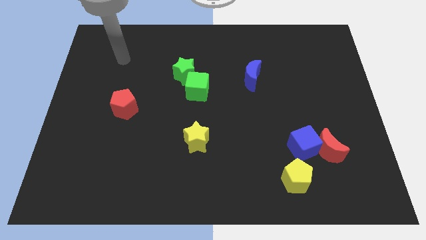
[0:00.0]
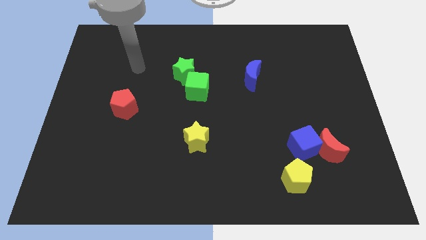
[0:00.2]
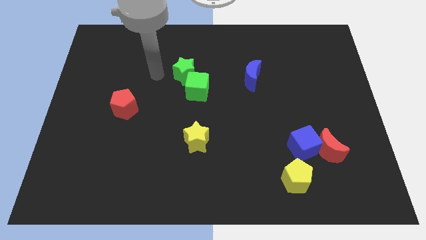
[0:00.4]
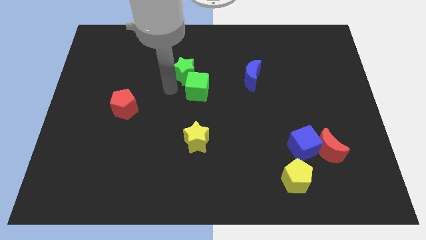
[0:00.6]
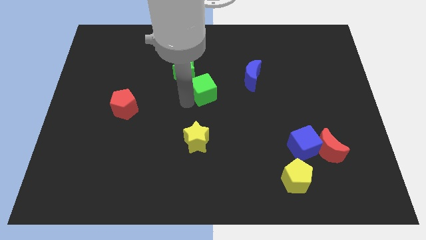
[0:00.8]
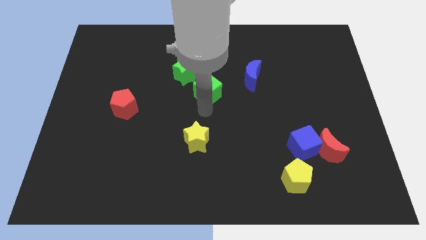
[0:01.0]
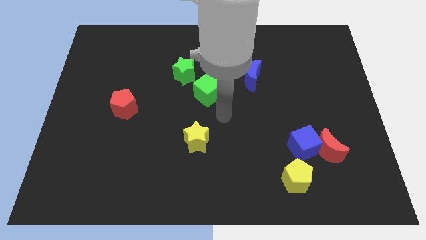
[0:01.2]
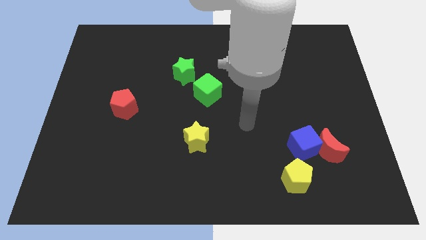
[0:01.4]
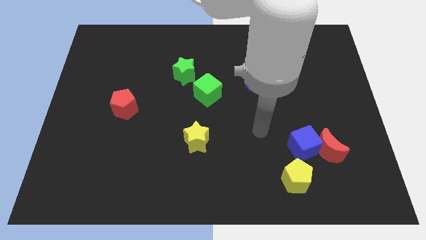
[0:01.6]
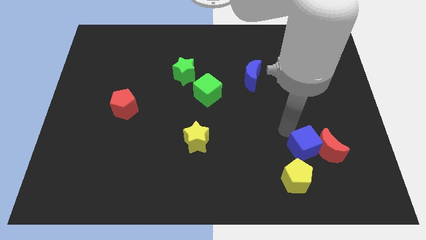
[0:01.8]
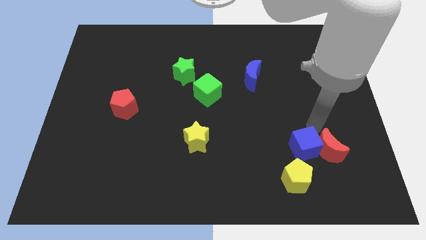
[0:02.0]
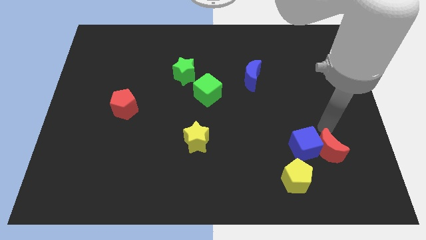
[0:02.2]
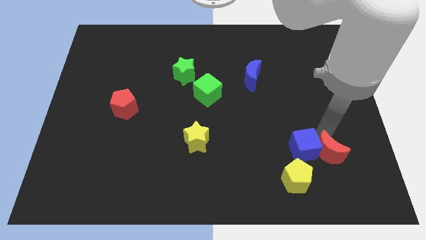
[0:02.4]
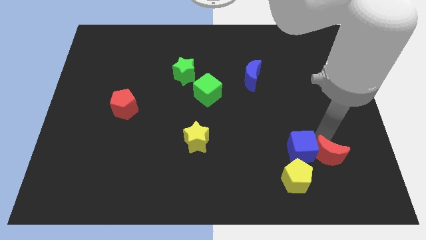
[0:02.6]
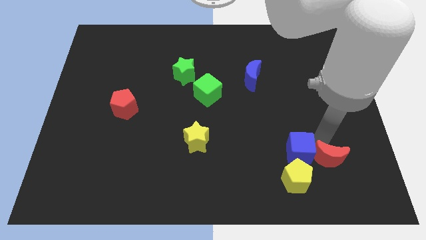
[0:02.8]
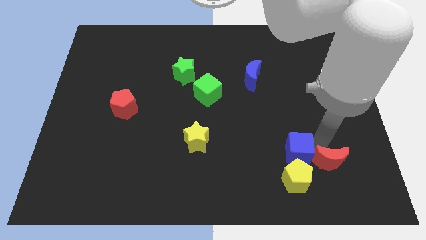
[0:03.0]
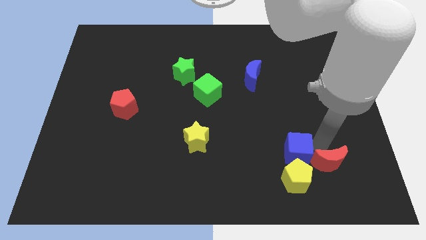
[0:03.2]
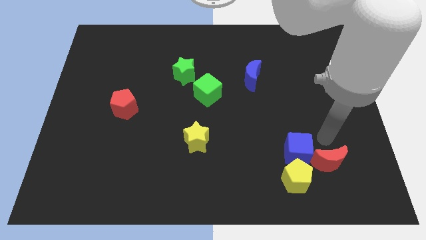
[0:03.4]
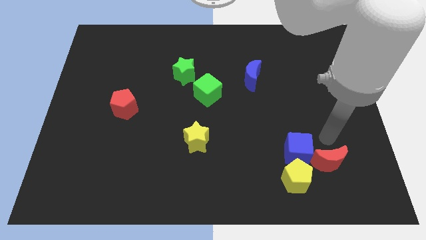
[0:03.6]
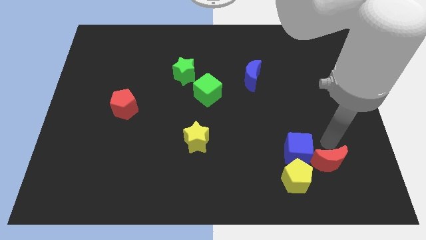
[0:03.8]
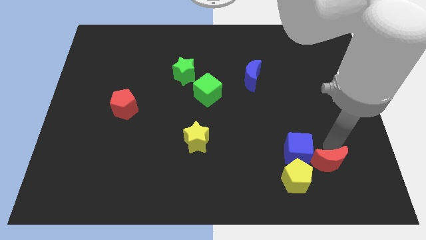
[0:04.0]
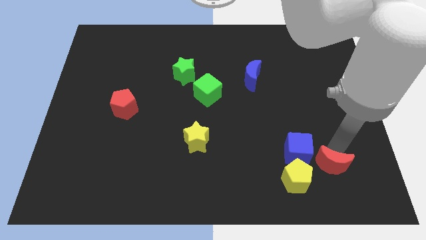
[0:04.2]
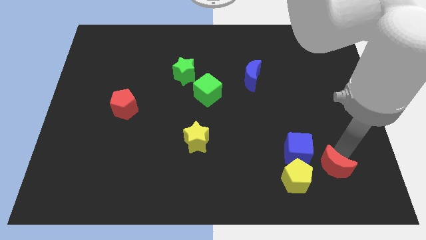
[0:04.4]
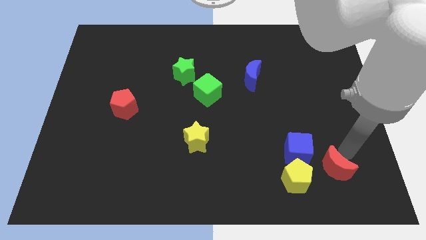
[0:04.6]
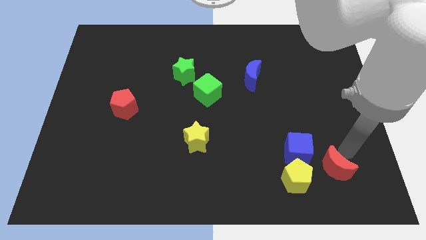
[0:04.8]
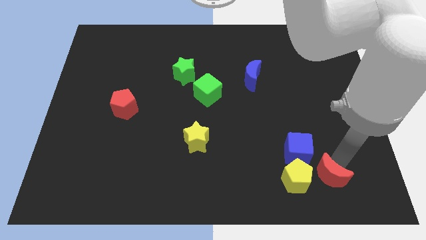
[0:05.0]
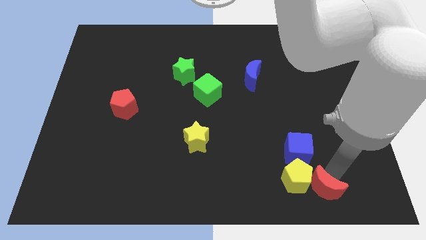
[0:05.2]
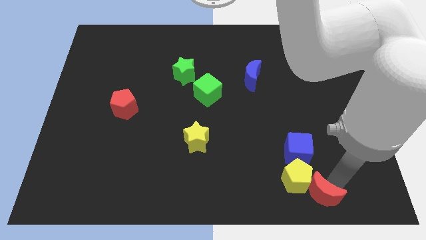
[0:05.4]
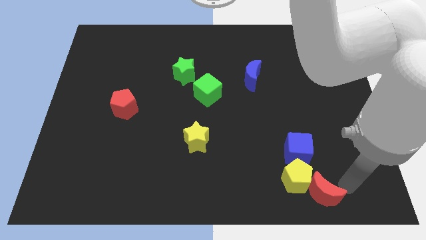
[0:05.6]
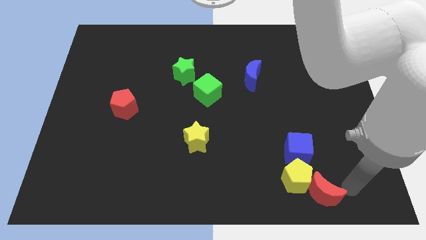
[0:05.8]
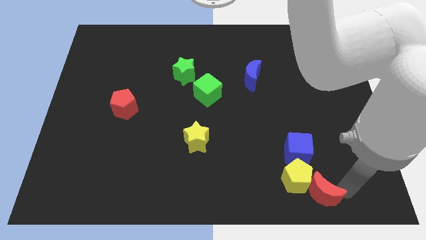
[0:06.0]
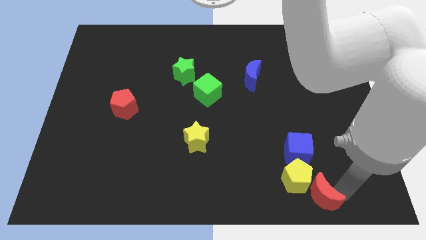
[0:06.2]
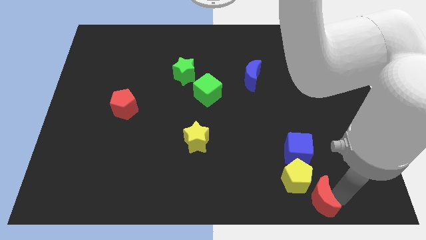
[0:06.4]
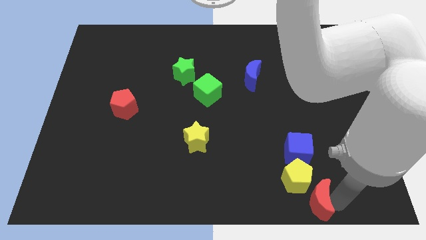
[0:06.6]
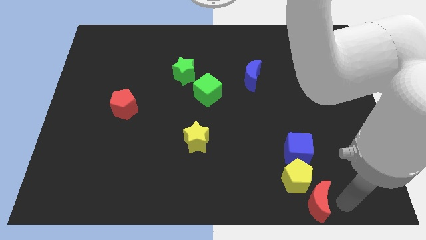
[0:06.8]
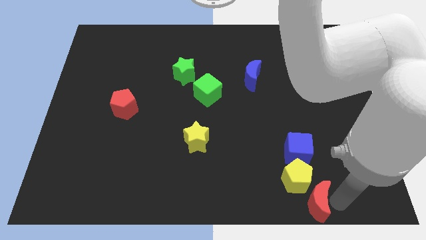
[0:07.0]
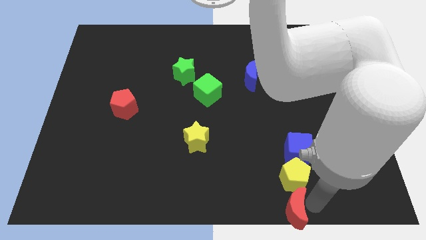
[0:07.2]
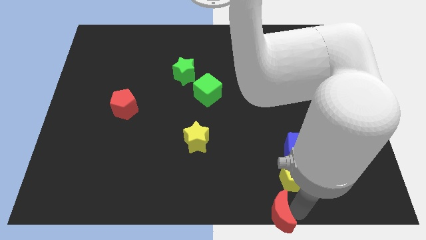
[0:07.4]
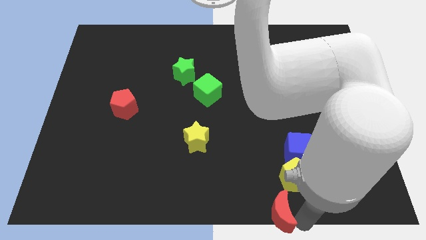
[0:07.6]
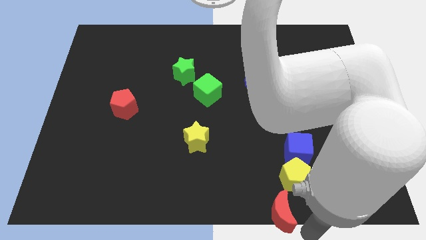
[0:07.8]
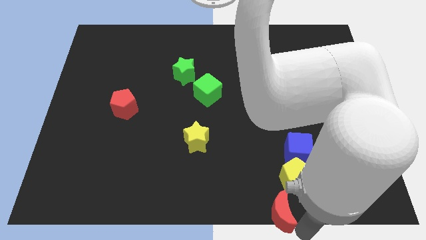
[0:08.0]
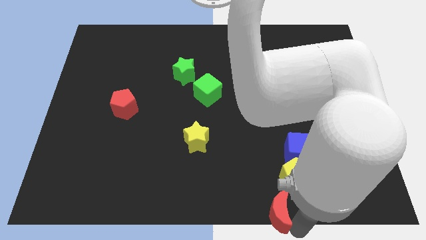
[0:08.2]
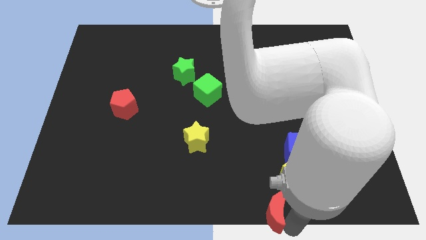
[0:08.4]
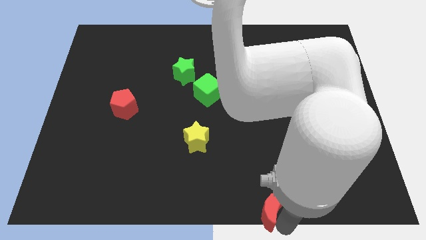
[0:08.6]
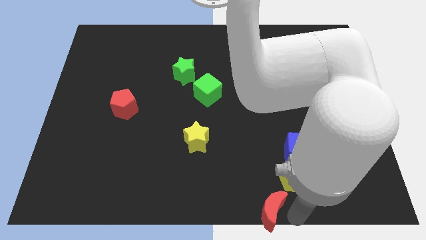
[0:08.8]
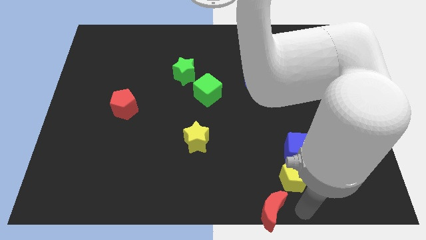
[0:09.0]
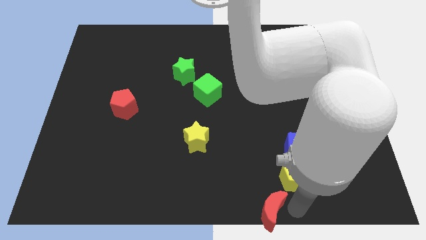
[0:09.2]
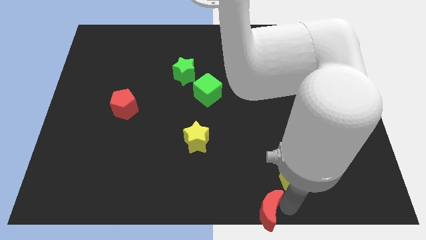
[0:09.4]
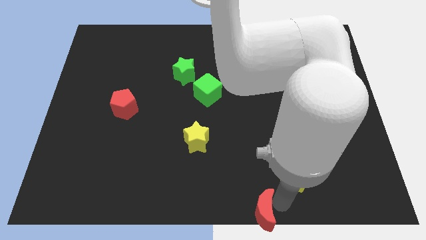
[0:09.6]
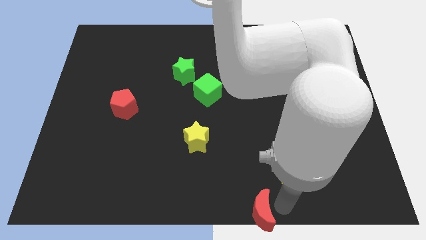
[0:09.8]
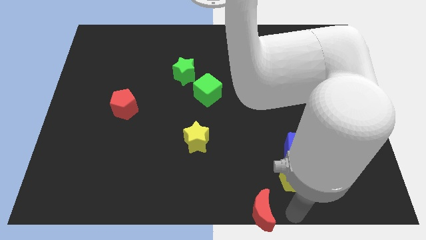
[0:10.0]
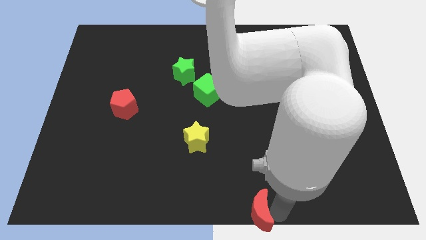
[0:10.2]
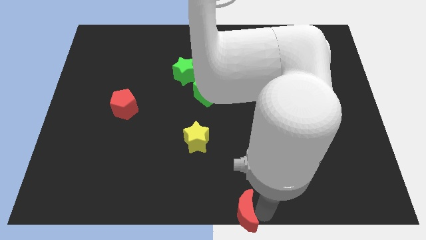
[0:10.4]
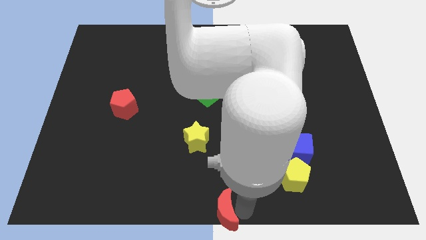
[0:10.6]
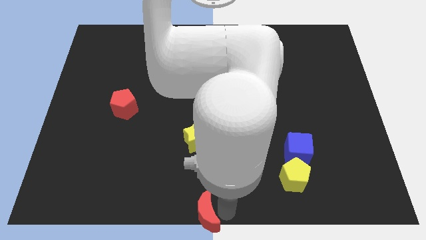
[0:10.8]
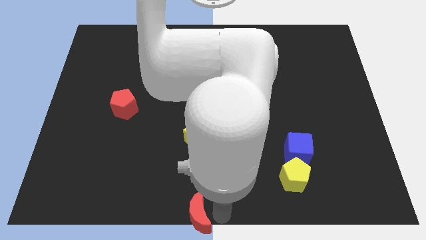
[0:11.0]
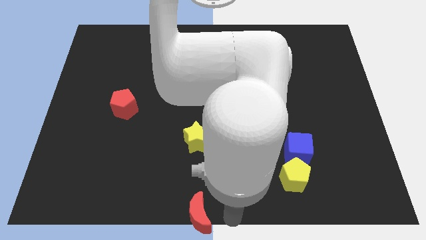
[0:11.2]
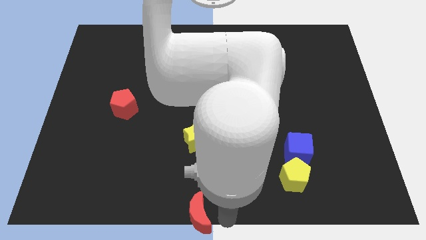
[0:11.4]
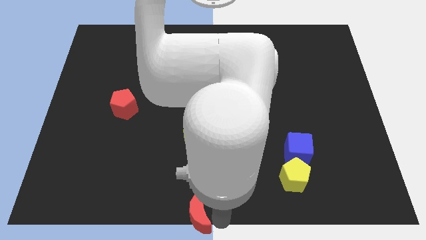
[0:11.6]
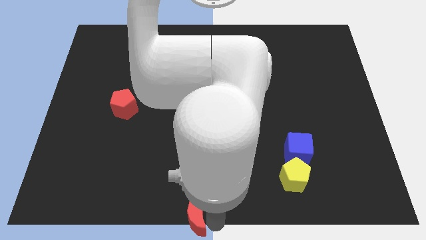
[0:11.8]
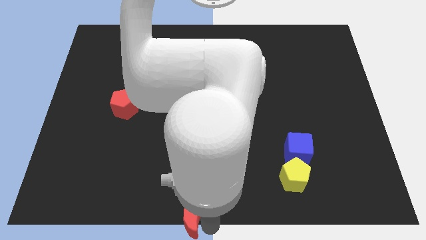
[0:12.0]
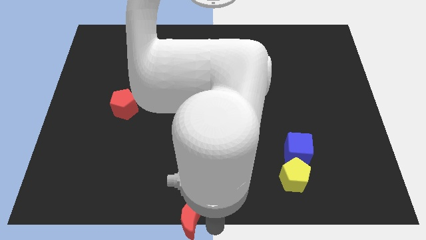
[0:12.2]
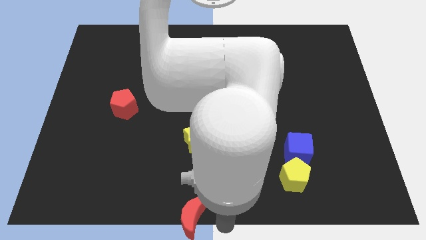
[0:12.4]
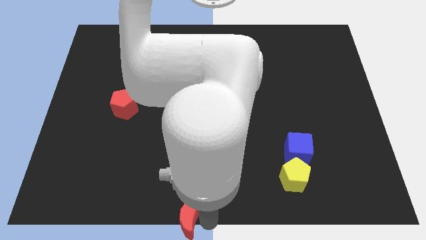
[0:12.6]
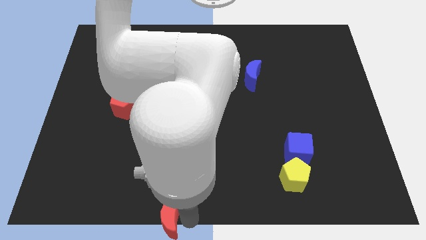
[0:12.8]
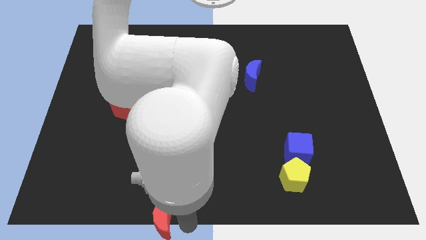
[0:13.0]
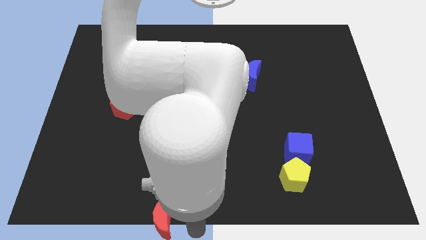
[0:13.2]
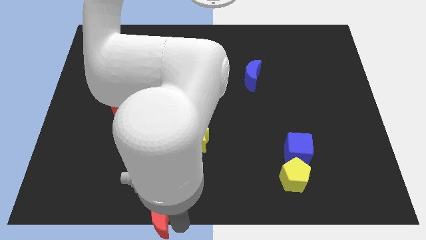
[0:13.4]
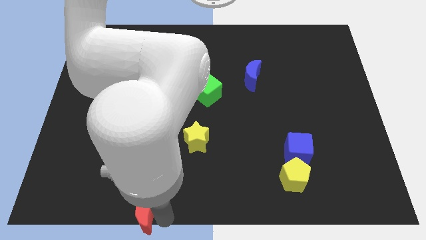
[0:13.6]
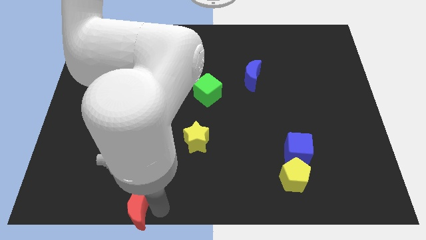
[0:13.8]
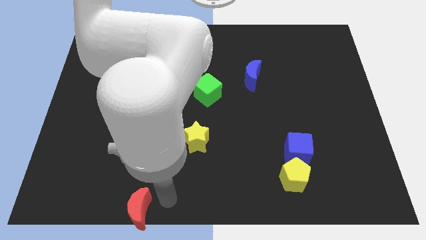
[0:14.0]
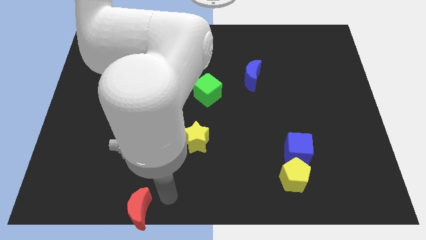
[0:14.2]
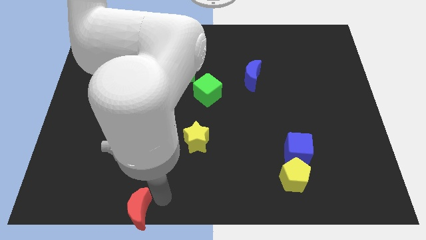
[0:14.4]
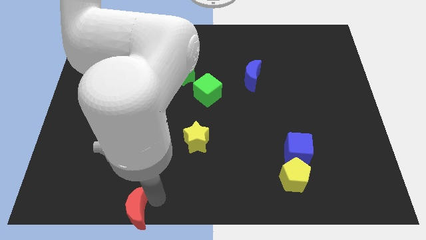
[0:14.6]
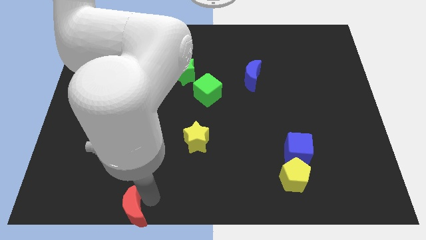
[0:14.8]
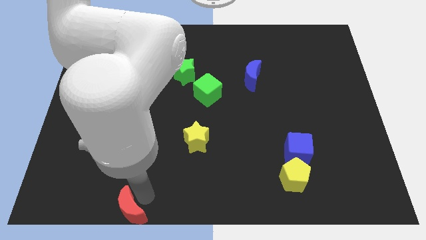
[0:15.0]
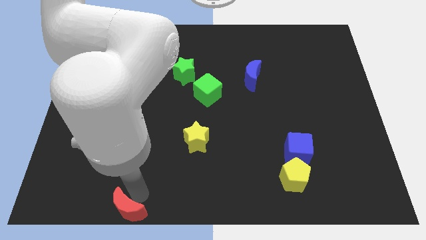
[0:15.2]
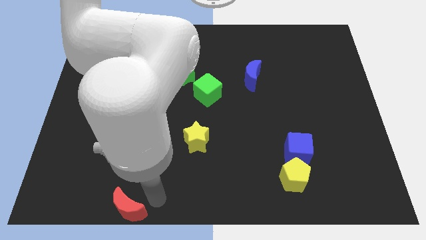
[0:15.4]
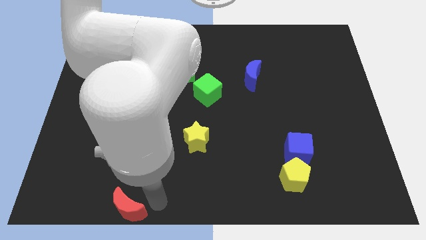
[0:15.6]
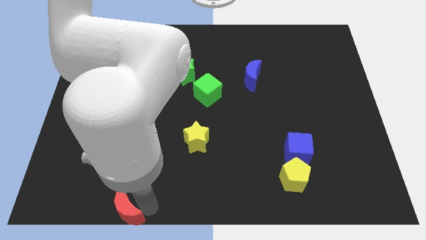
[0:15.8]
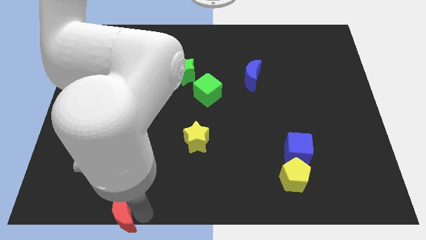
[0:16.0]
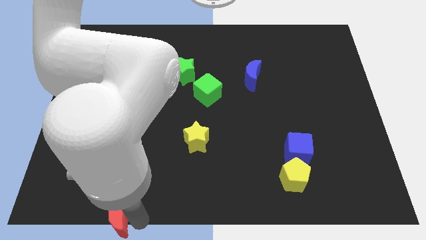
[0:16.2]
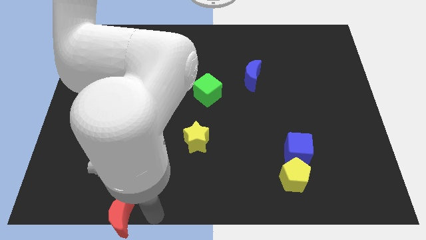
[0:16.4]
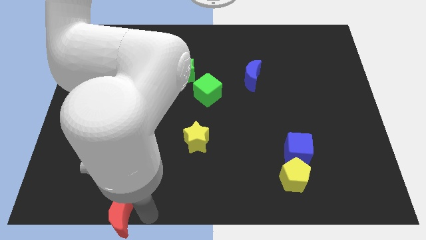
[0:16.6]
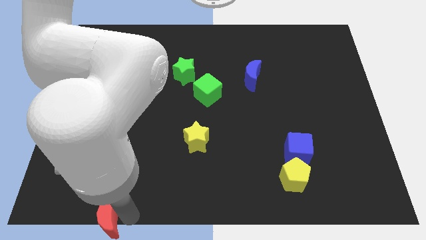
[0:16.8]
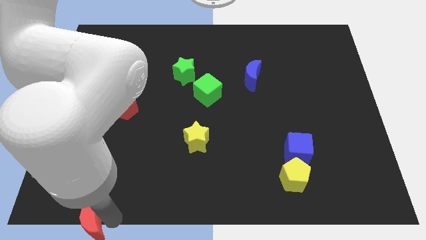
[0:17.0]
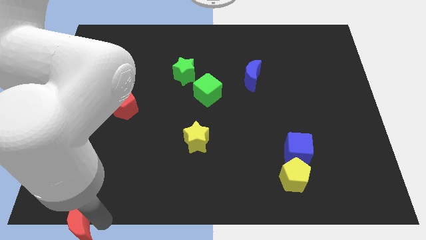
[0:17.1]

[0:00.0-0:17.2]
push the red moon to the bottom left of the board
